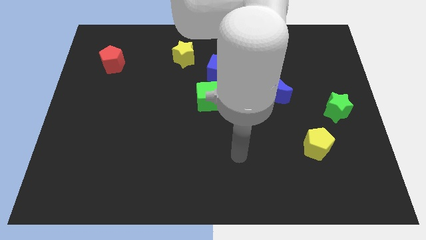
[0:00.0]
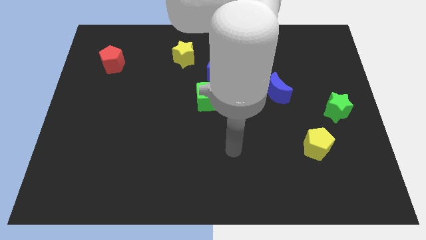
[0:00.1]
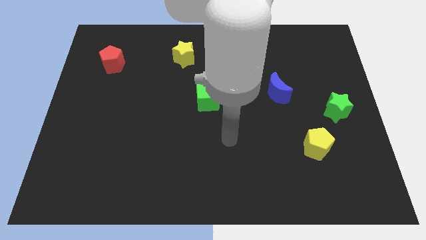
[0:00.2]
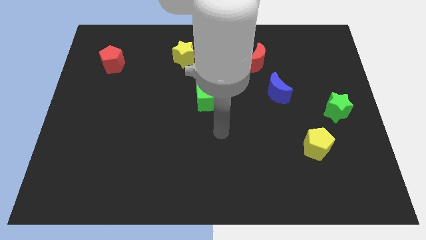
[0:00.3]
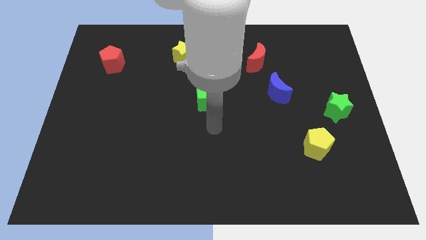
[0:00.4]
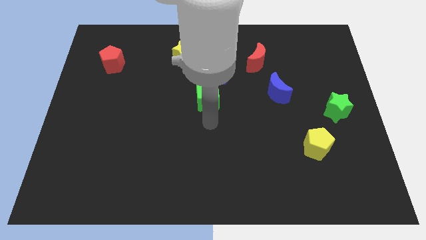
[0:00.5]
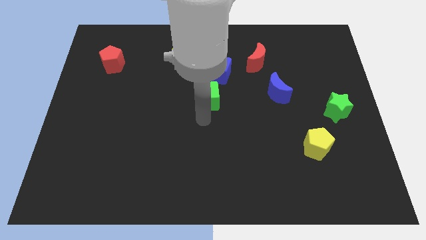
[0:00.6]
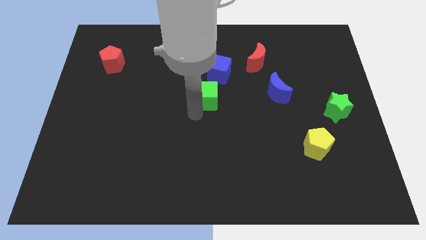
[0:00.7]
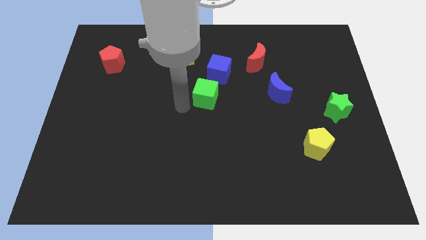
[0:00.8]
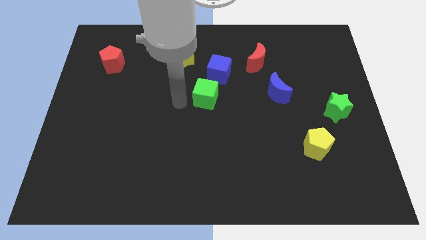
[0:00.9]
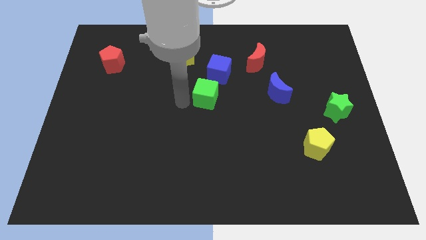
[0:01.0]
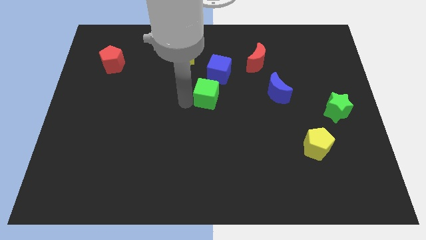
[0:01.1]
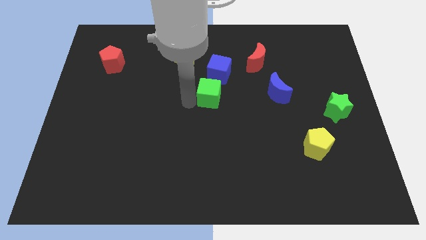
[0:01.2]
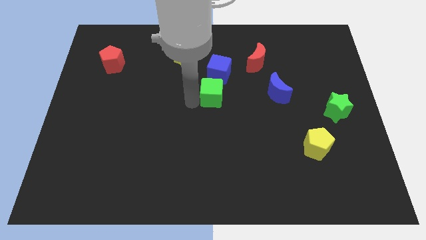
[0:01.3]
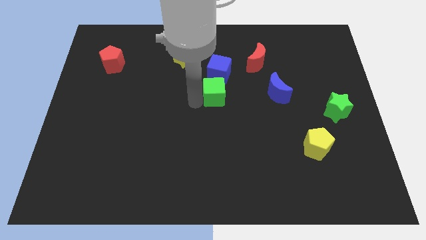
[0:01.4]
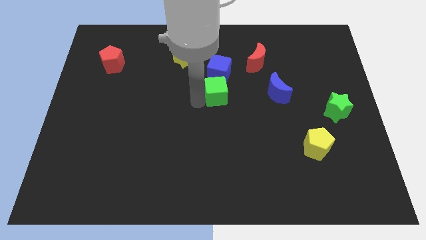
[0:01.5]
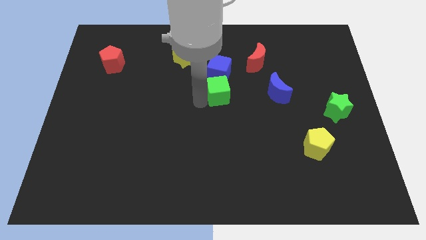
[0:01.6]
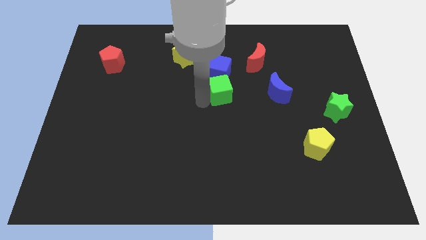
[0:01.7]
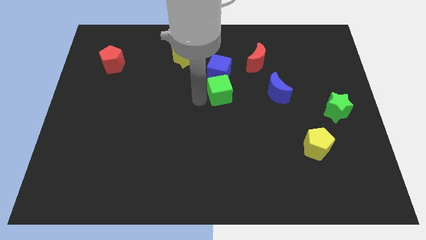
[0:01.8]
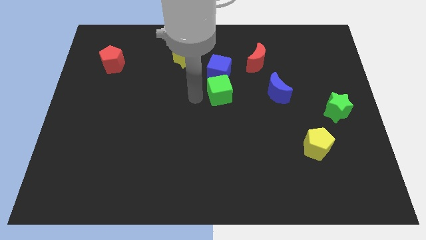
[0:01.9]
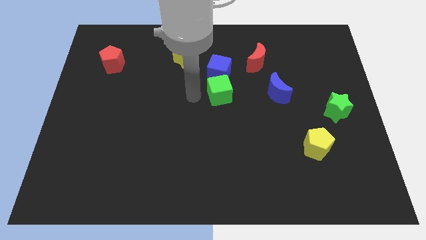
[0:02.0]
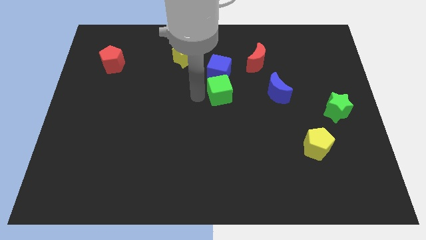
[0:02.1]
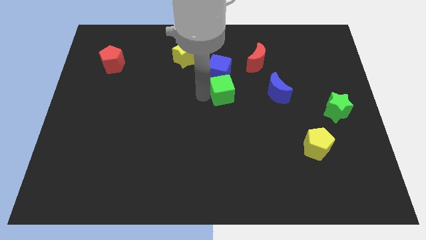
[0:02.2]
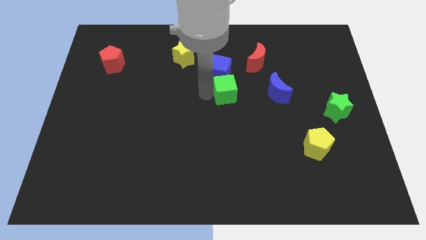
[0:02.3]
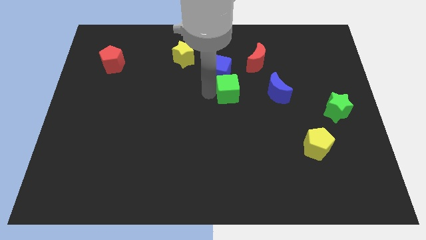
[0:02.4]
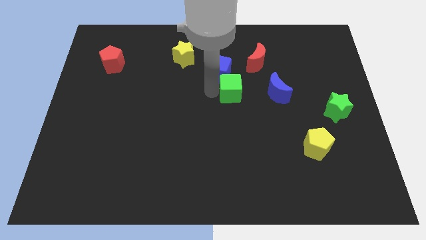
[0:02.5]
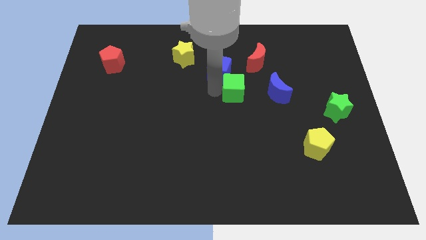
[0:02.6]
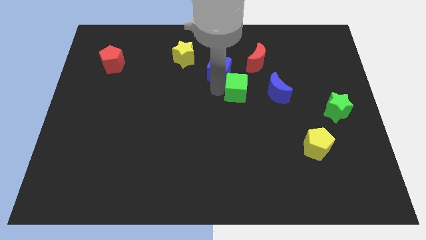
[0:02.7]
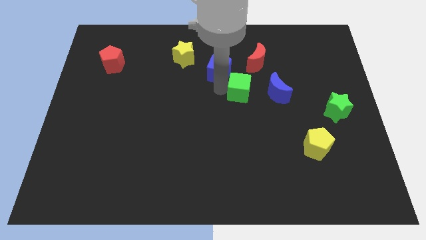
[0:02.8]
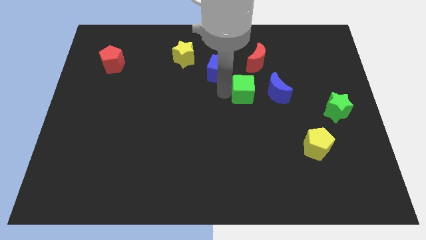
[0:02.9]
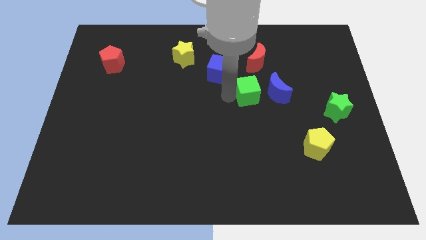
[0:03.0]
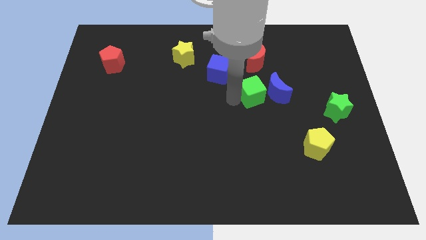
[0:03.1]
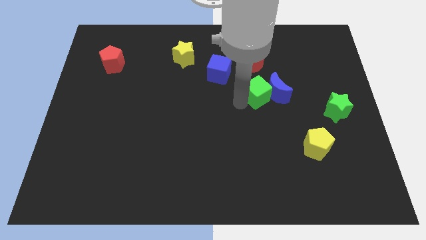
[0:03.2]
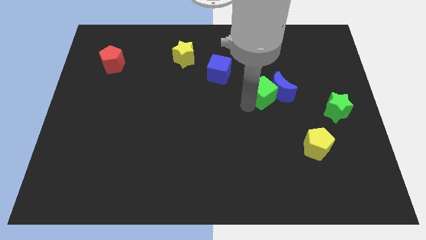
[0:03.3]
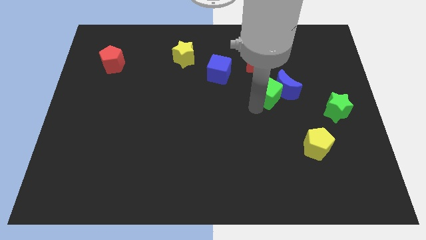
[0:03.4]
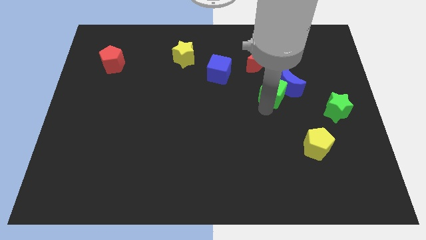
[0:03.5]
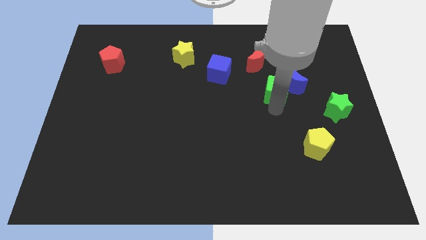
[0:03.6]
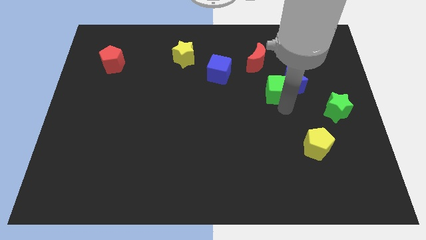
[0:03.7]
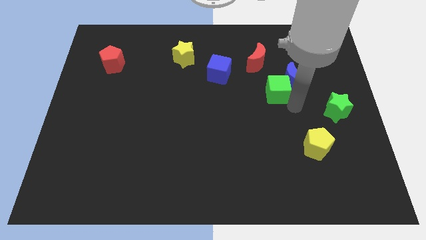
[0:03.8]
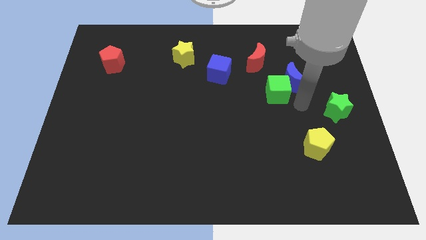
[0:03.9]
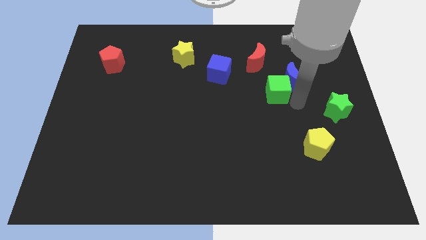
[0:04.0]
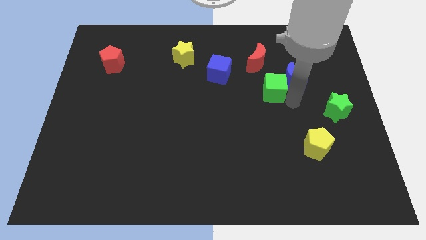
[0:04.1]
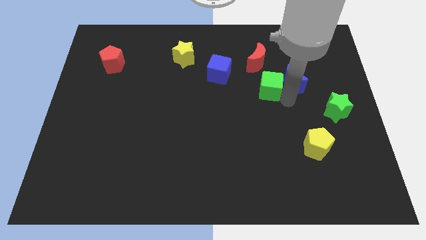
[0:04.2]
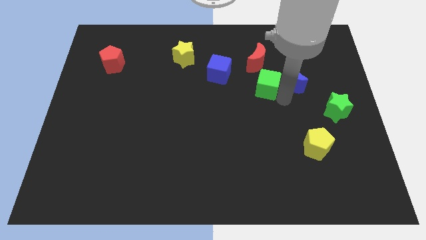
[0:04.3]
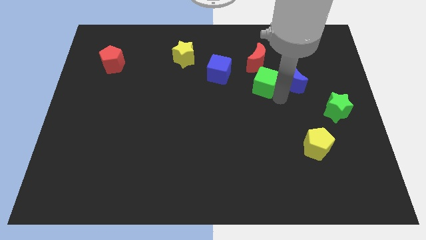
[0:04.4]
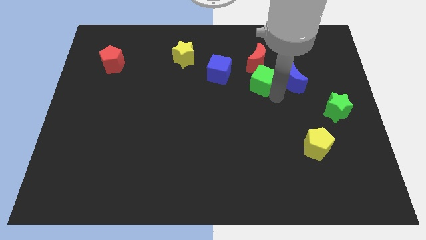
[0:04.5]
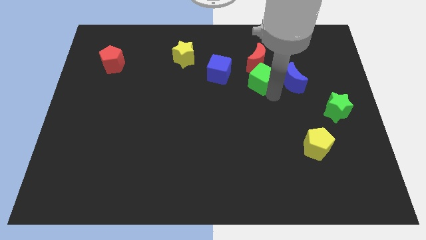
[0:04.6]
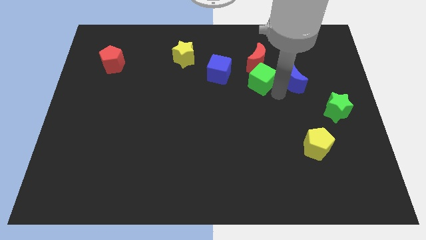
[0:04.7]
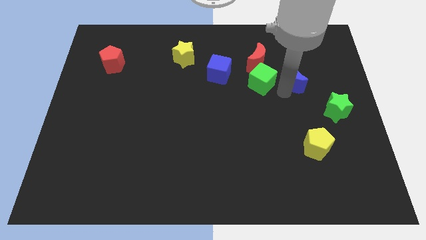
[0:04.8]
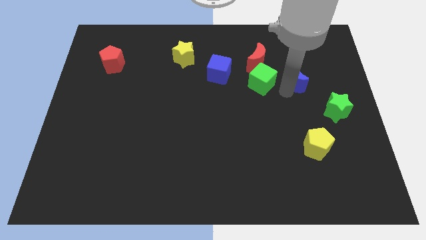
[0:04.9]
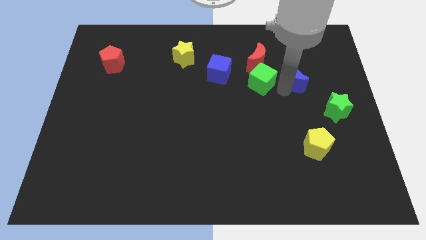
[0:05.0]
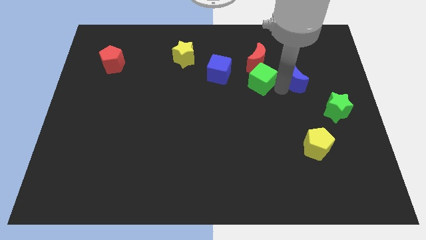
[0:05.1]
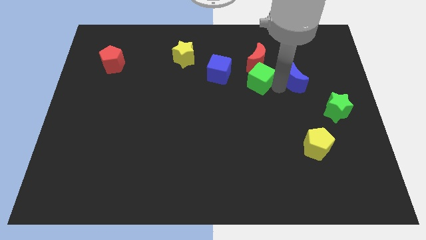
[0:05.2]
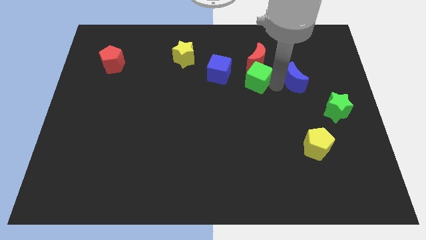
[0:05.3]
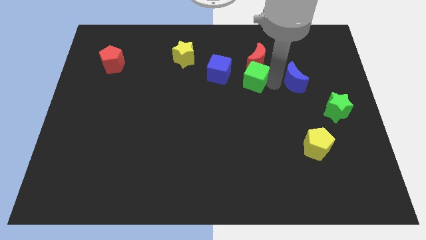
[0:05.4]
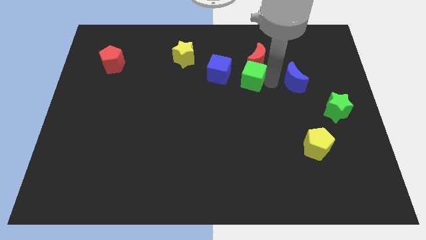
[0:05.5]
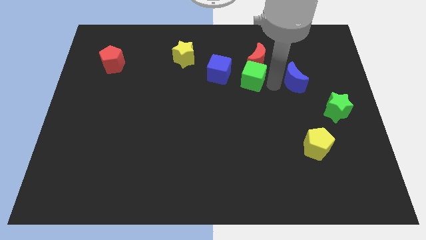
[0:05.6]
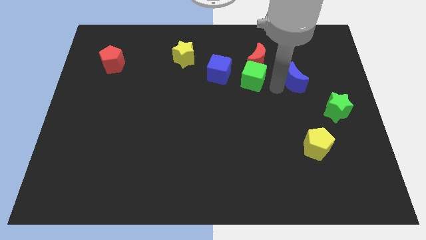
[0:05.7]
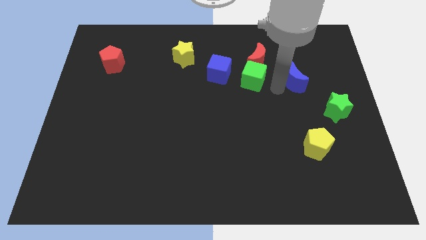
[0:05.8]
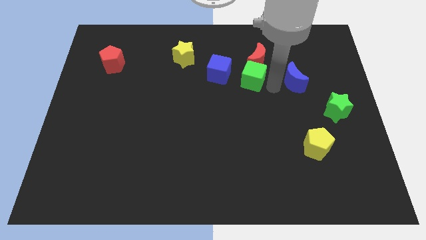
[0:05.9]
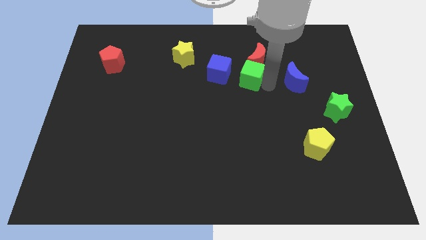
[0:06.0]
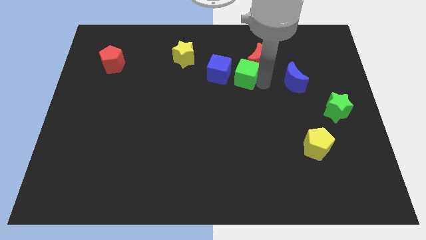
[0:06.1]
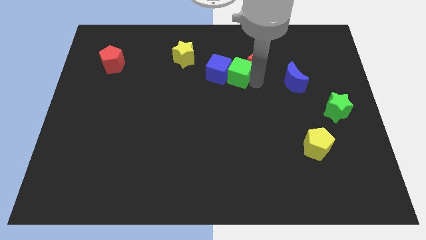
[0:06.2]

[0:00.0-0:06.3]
move the green cube diagonally up and to the right of the blue cube

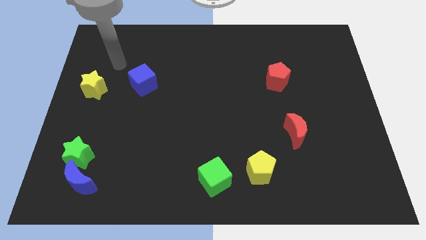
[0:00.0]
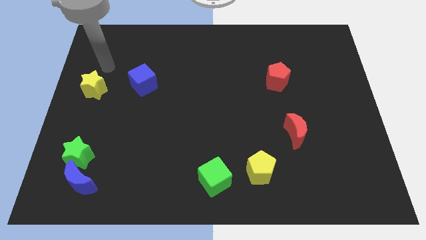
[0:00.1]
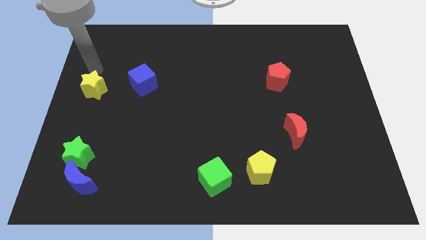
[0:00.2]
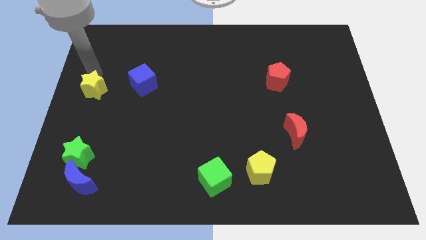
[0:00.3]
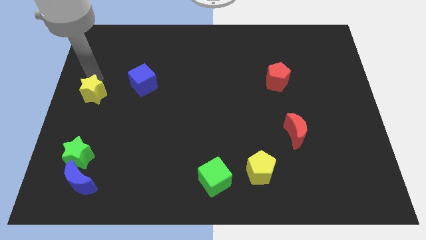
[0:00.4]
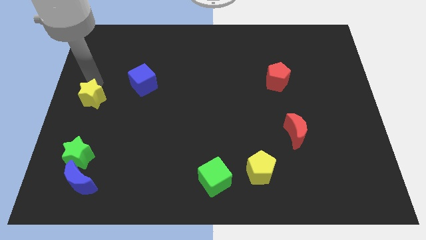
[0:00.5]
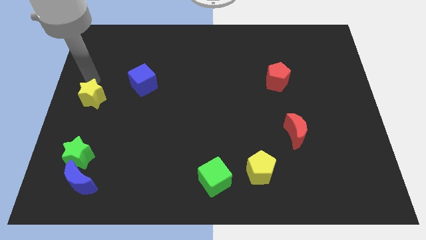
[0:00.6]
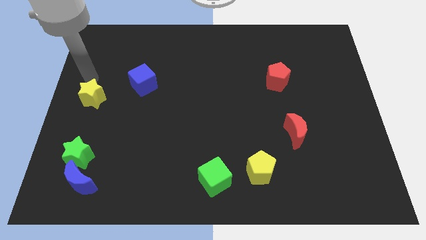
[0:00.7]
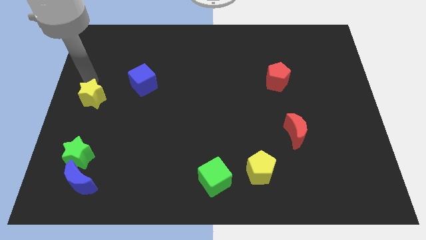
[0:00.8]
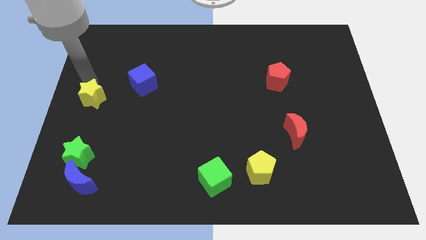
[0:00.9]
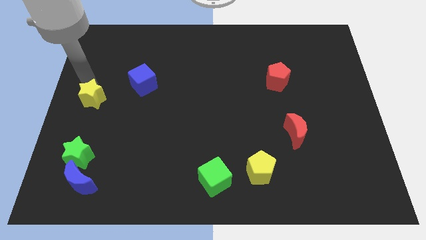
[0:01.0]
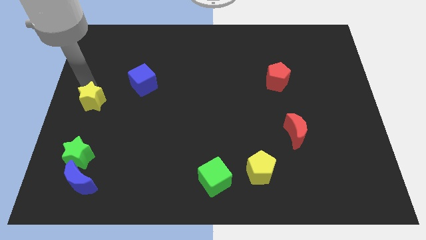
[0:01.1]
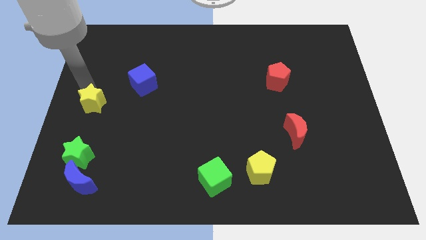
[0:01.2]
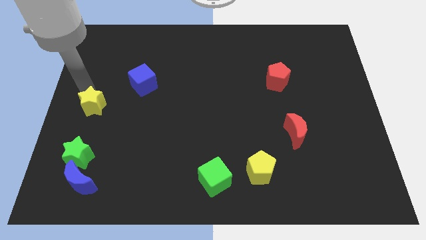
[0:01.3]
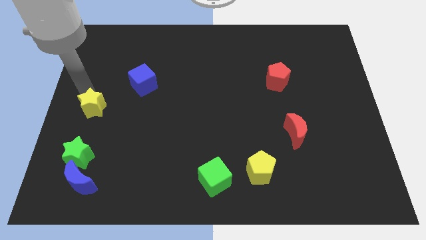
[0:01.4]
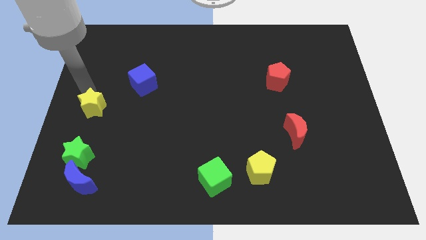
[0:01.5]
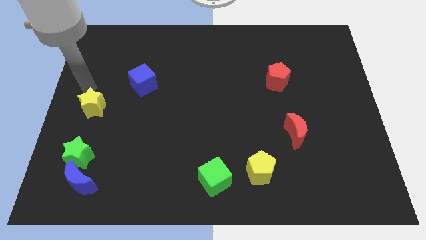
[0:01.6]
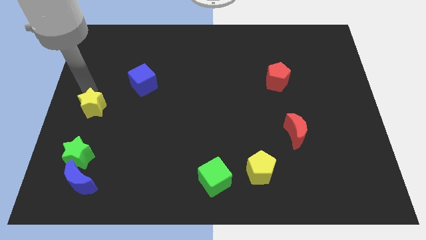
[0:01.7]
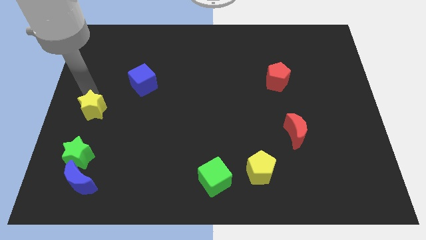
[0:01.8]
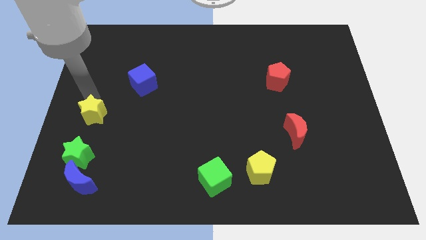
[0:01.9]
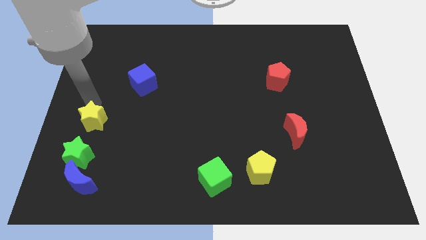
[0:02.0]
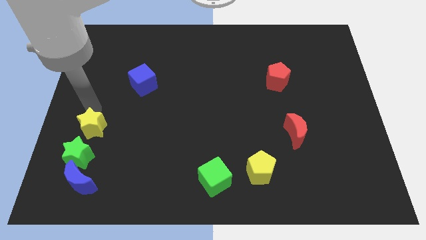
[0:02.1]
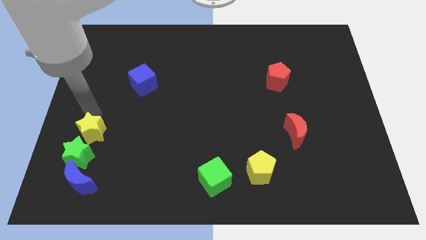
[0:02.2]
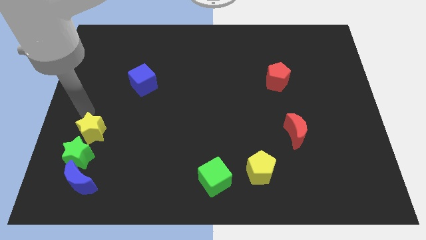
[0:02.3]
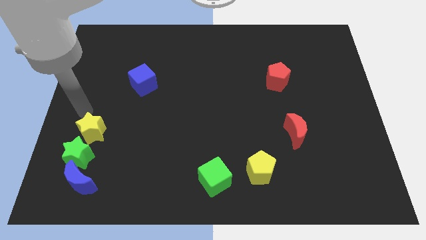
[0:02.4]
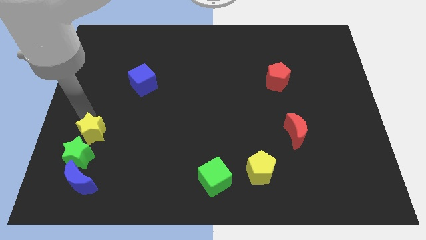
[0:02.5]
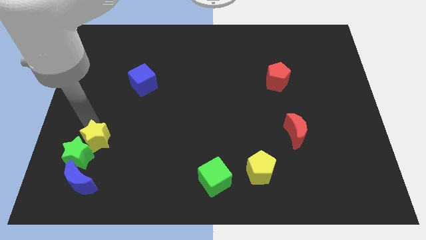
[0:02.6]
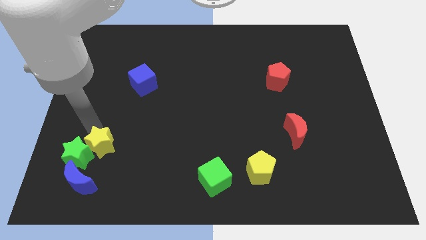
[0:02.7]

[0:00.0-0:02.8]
put the yellow star diagonally up and to the right of the blue moon
